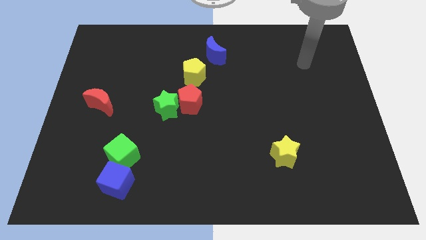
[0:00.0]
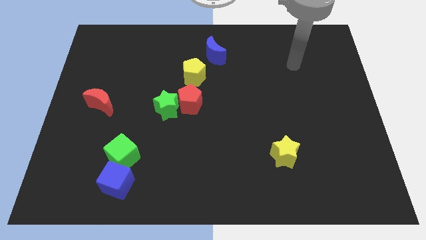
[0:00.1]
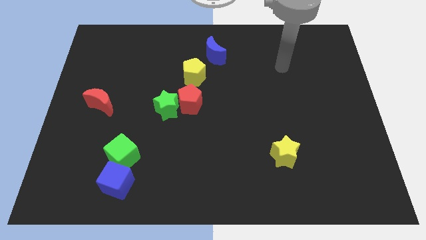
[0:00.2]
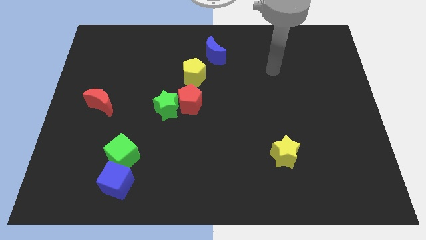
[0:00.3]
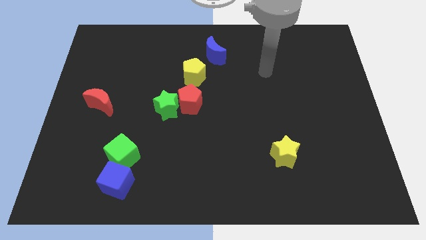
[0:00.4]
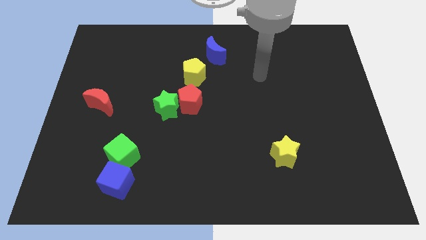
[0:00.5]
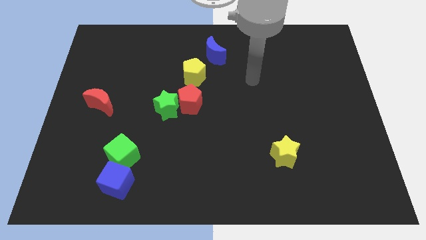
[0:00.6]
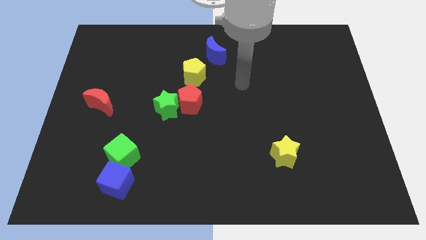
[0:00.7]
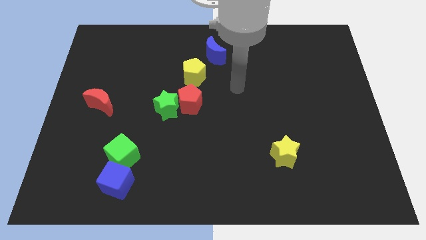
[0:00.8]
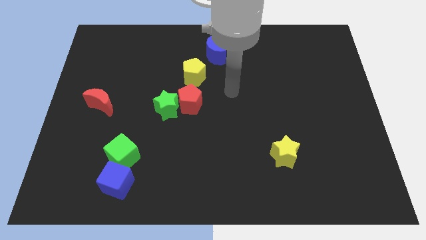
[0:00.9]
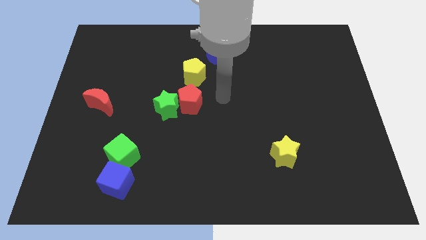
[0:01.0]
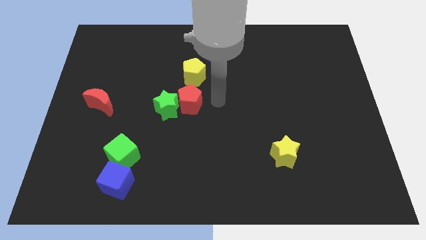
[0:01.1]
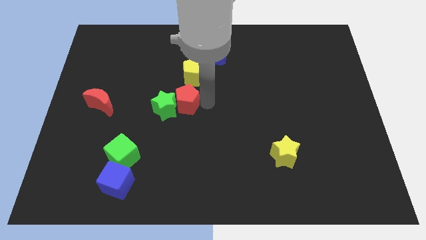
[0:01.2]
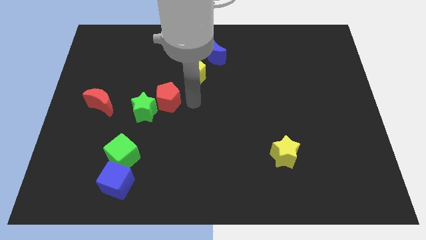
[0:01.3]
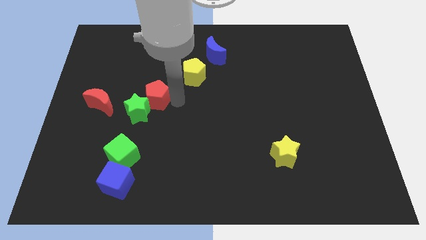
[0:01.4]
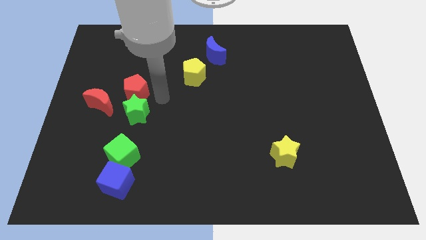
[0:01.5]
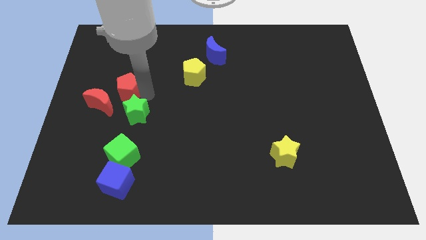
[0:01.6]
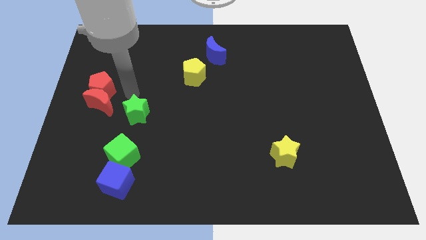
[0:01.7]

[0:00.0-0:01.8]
move the green star away from the red pentagon

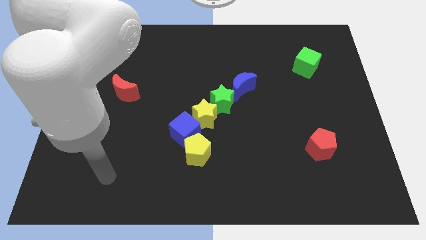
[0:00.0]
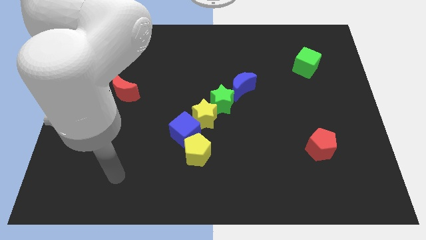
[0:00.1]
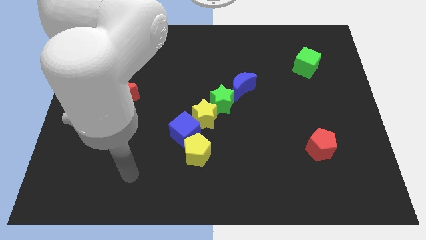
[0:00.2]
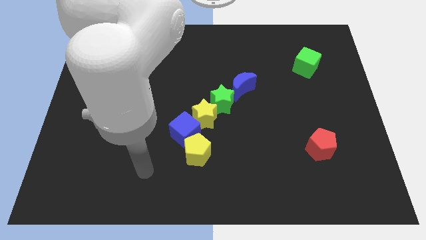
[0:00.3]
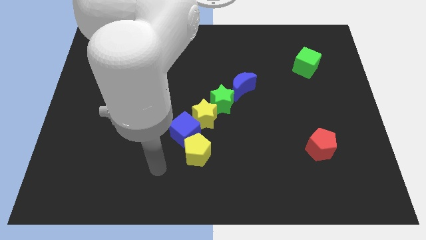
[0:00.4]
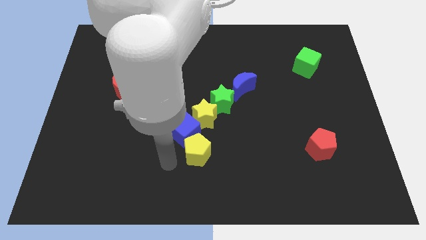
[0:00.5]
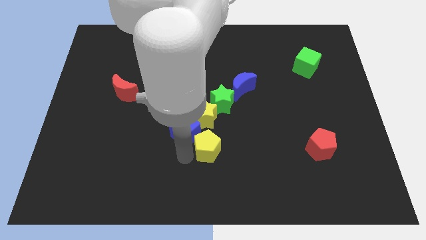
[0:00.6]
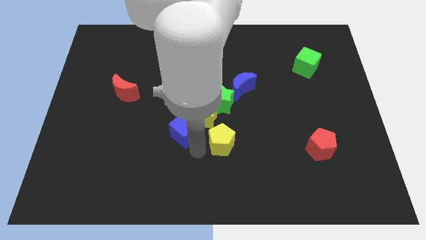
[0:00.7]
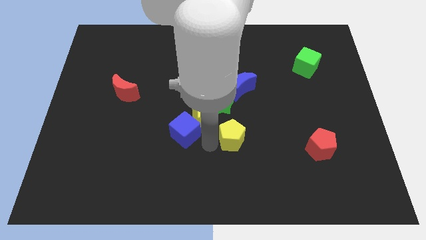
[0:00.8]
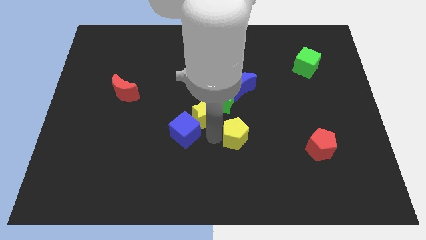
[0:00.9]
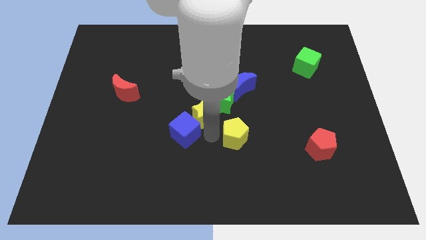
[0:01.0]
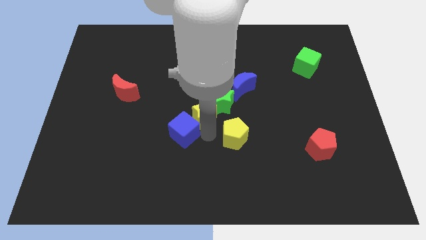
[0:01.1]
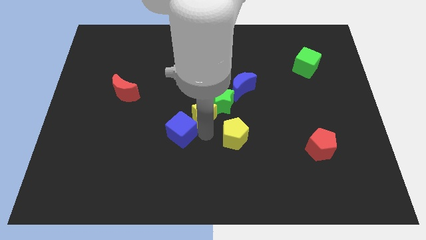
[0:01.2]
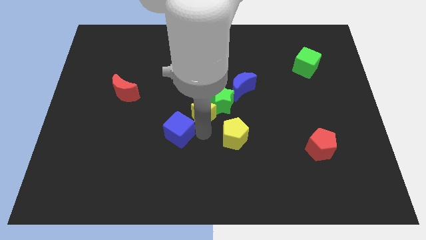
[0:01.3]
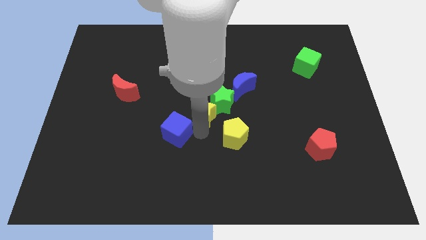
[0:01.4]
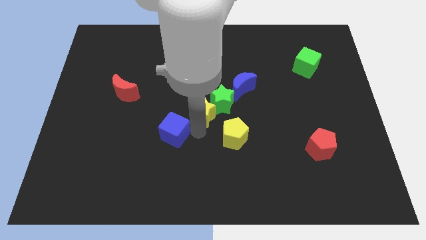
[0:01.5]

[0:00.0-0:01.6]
pull the blue cube apart from the yellow pentagon and yellow star

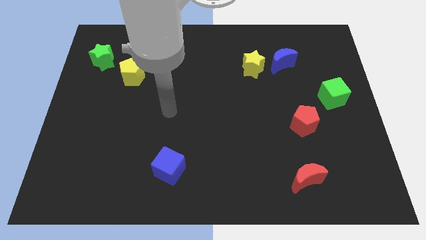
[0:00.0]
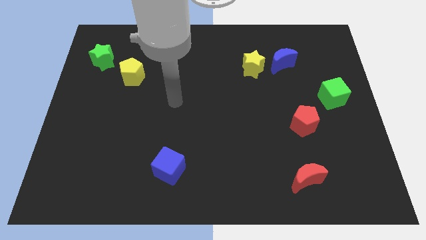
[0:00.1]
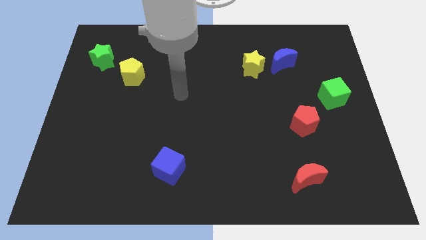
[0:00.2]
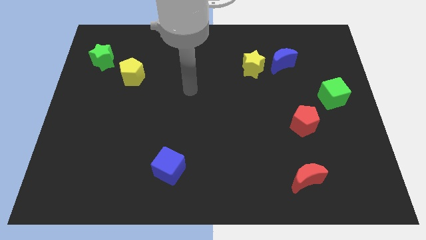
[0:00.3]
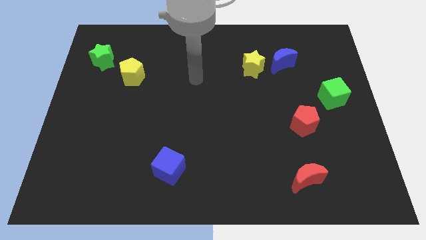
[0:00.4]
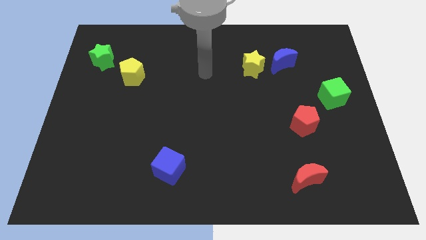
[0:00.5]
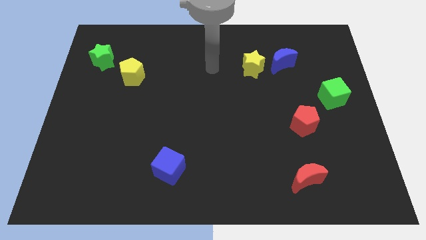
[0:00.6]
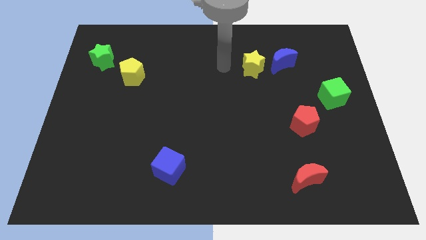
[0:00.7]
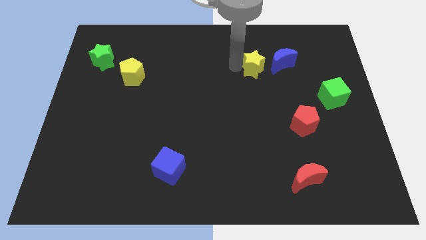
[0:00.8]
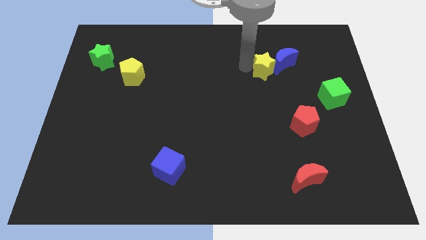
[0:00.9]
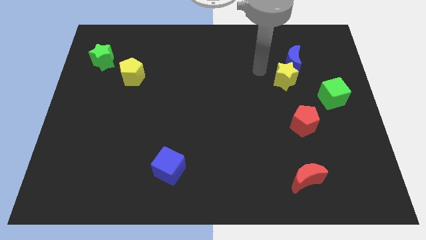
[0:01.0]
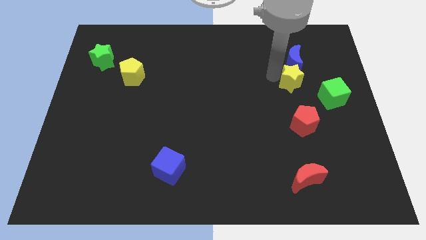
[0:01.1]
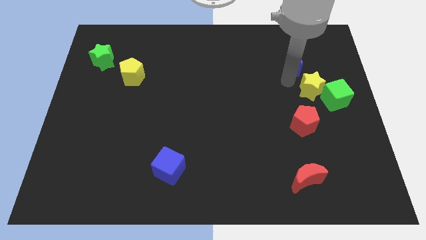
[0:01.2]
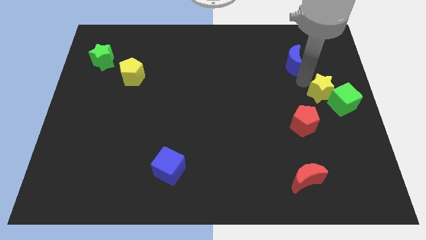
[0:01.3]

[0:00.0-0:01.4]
move the blue moon away from the yellow star

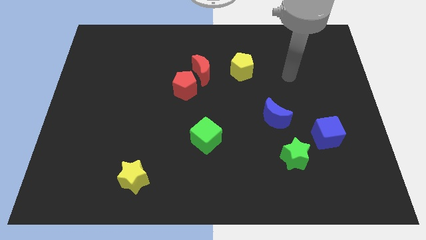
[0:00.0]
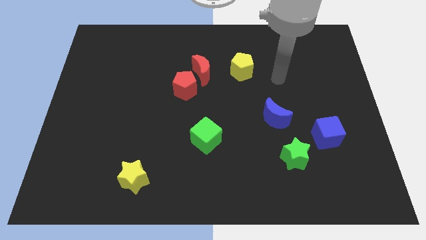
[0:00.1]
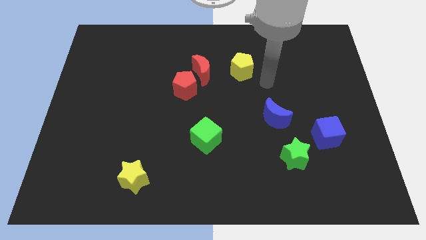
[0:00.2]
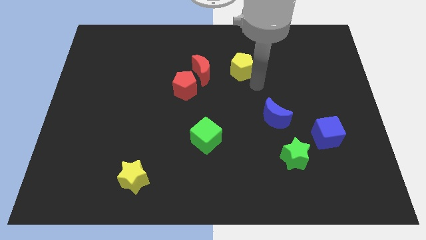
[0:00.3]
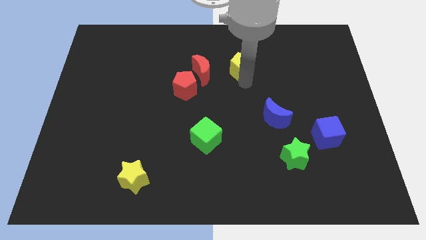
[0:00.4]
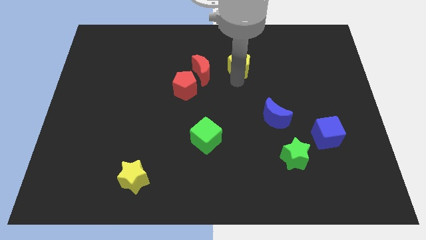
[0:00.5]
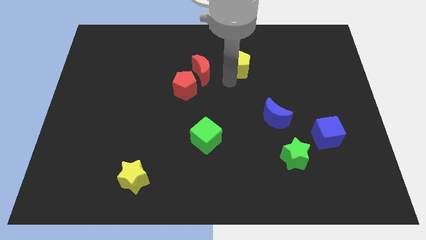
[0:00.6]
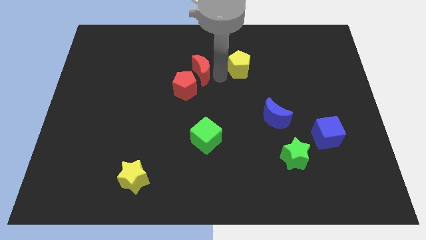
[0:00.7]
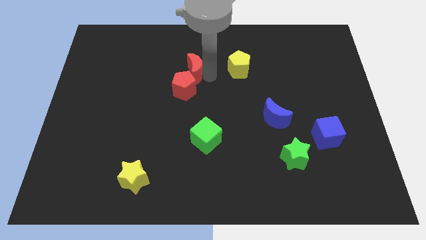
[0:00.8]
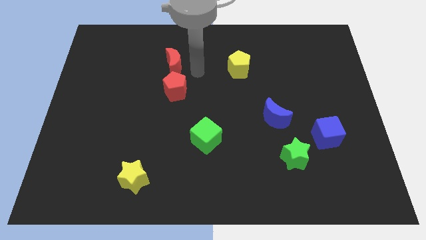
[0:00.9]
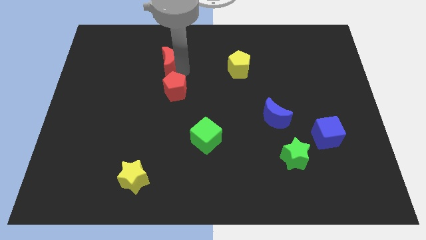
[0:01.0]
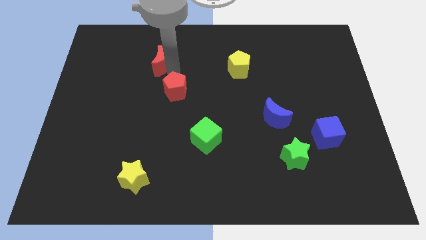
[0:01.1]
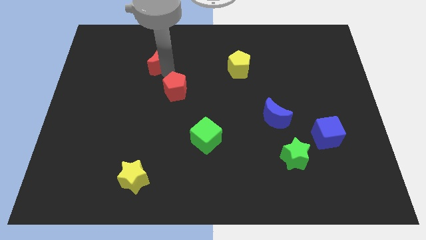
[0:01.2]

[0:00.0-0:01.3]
separate the red pentagon from the red moon

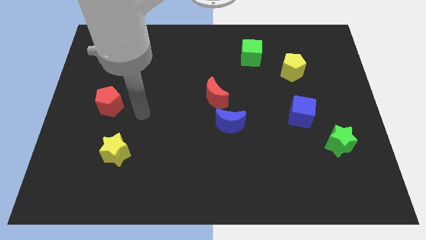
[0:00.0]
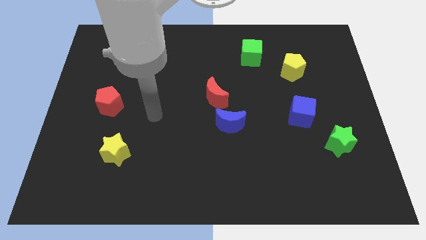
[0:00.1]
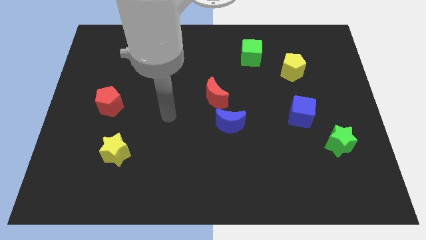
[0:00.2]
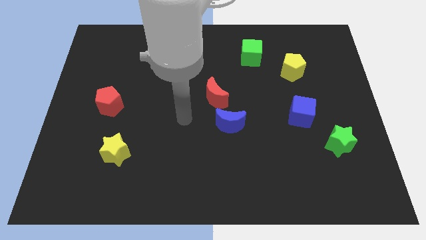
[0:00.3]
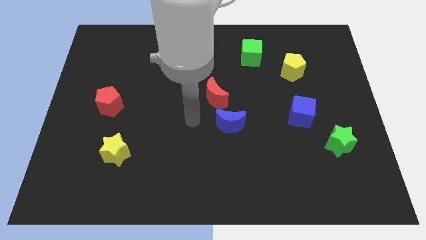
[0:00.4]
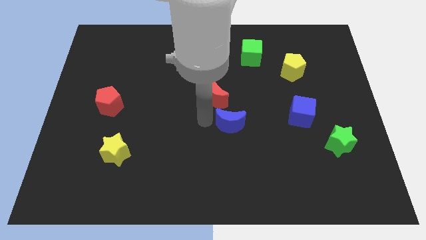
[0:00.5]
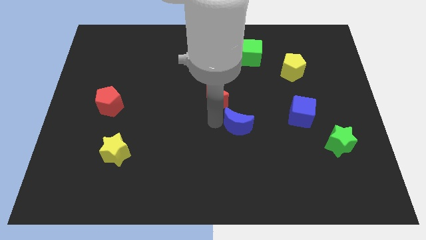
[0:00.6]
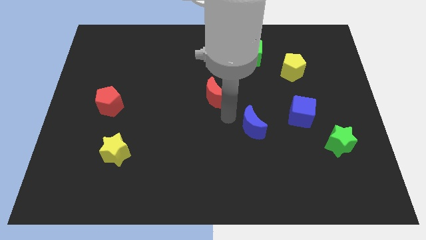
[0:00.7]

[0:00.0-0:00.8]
separate the red moon from the blue moon

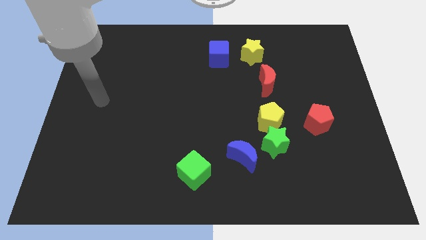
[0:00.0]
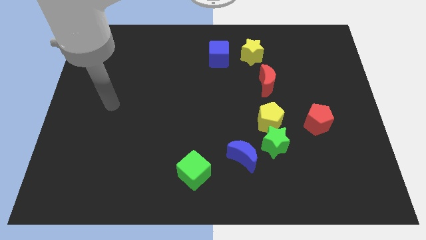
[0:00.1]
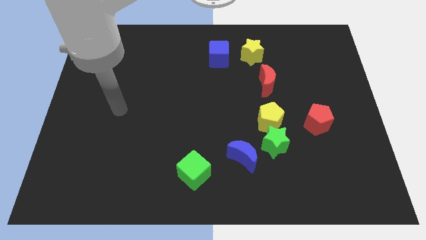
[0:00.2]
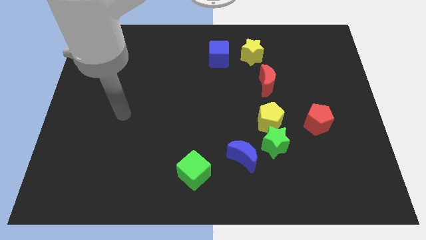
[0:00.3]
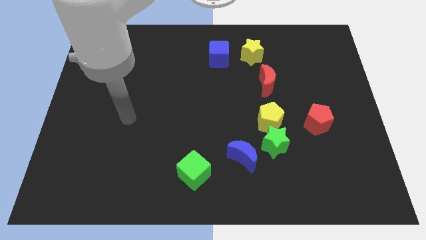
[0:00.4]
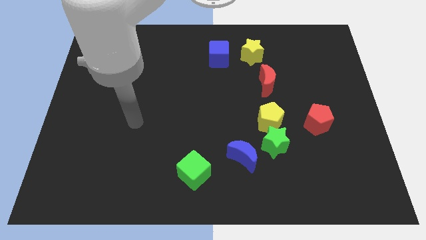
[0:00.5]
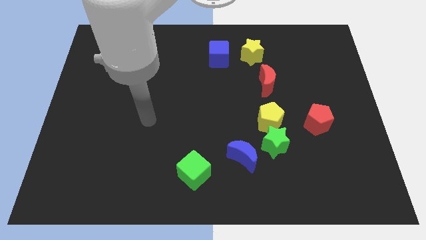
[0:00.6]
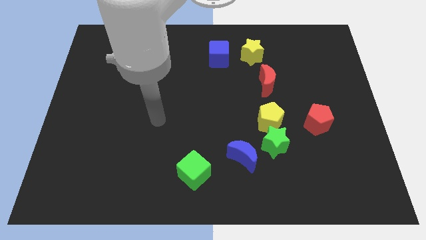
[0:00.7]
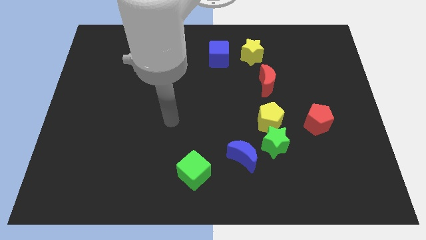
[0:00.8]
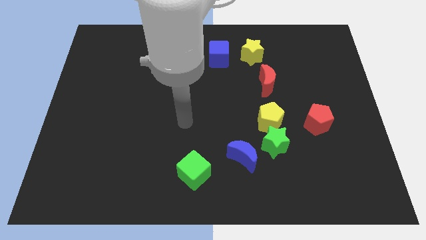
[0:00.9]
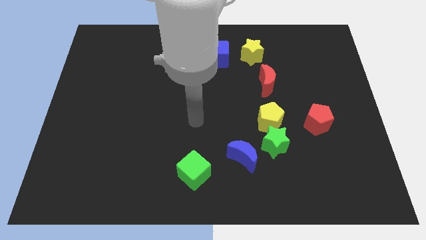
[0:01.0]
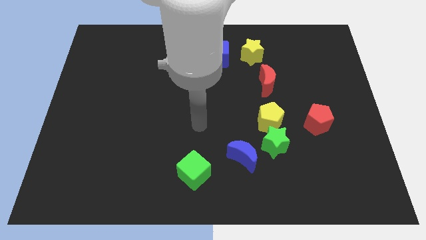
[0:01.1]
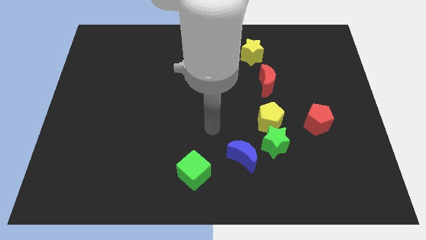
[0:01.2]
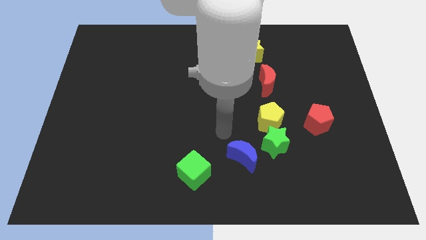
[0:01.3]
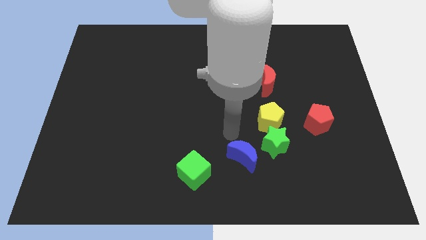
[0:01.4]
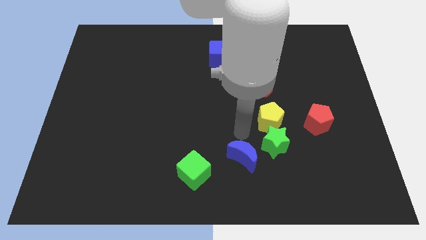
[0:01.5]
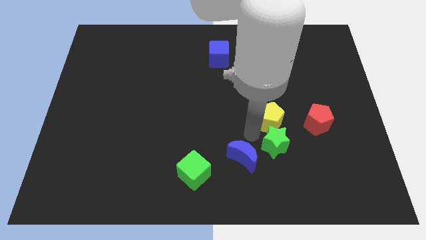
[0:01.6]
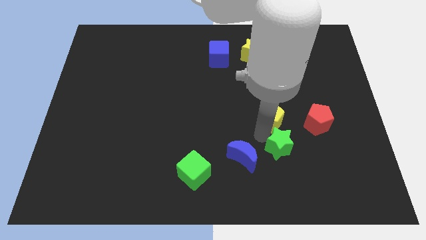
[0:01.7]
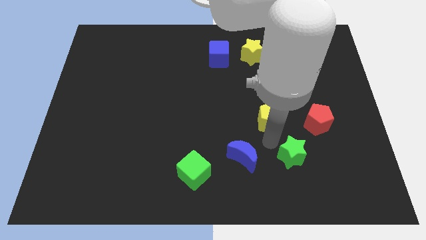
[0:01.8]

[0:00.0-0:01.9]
pull the yellow pentagon apart from the green star

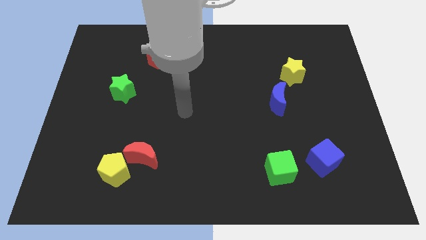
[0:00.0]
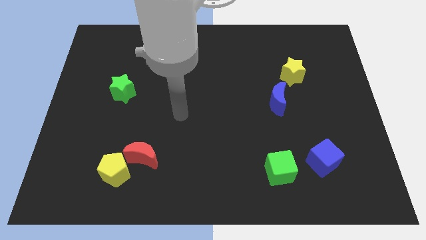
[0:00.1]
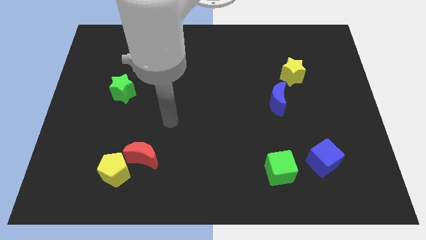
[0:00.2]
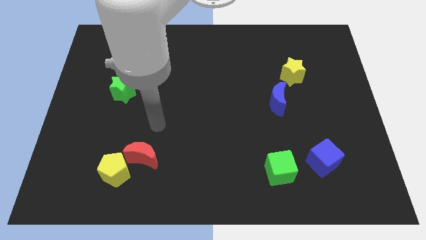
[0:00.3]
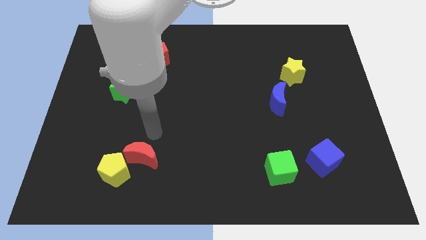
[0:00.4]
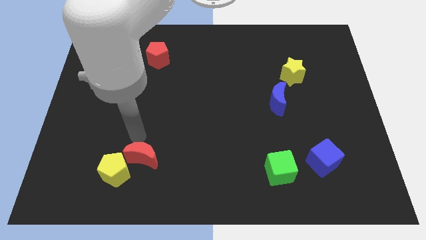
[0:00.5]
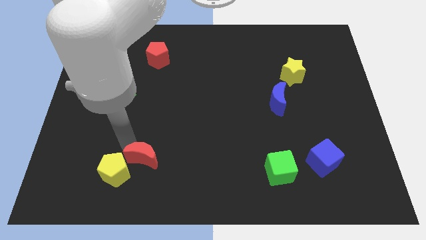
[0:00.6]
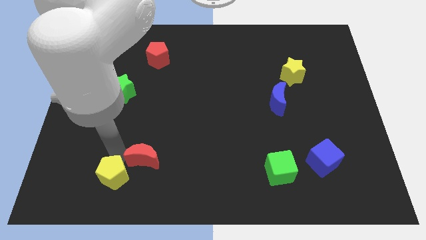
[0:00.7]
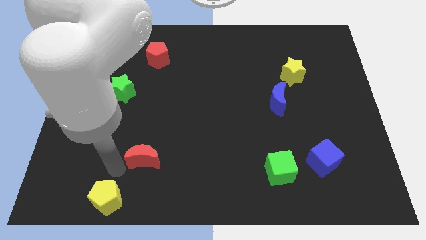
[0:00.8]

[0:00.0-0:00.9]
separate the red moon from the yellow pentagon
